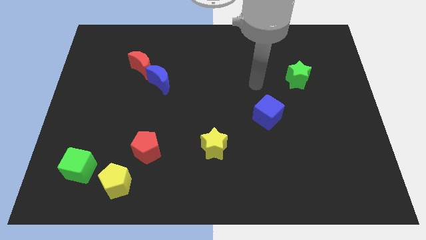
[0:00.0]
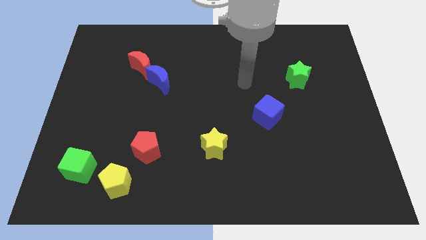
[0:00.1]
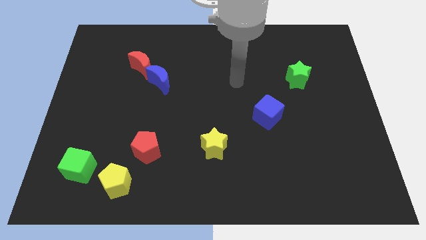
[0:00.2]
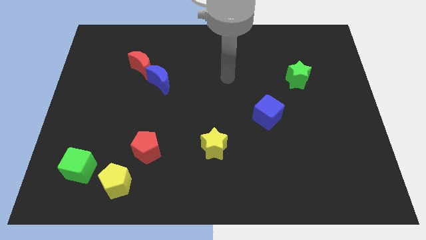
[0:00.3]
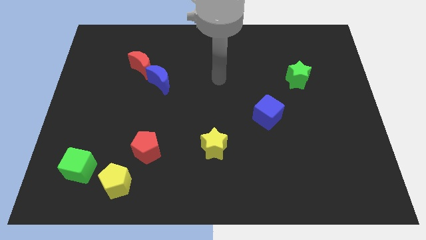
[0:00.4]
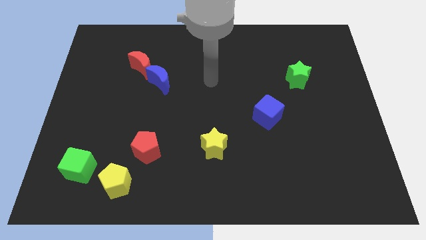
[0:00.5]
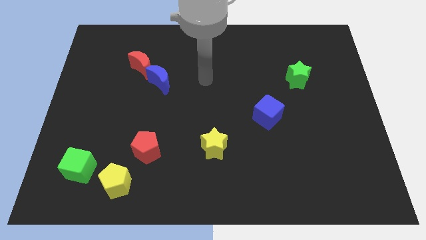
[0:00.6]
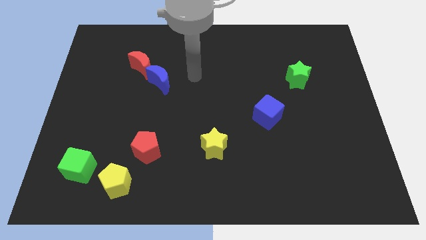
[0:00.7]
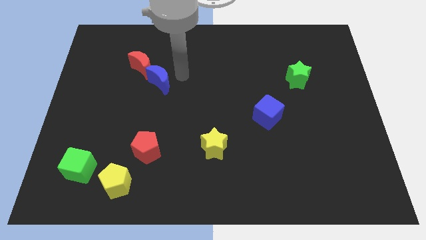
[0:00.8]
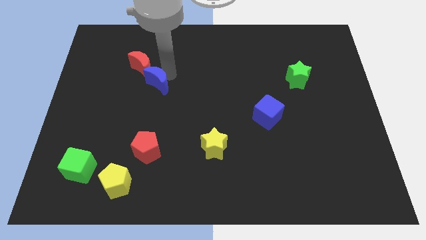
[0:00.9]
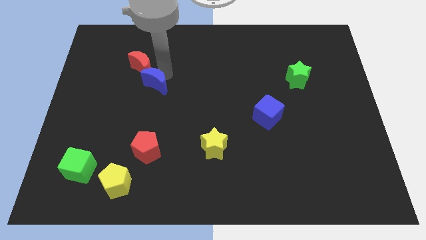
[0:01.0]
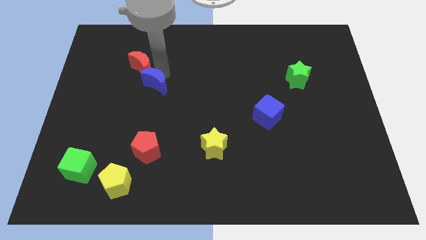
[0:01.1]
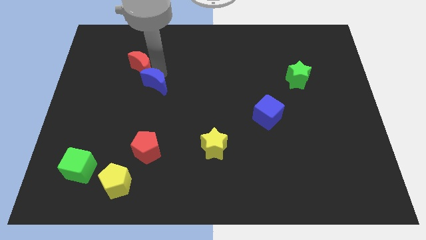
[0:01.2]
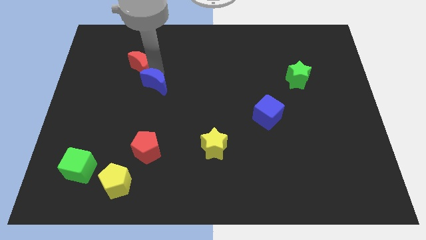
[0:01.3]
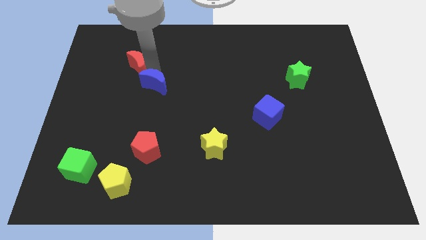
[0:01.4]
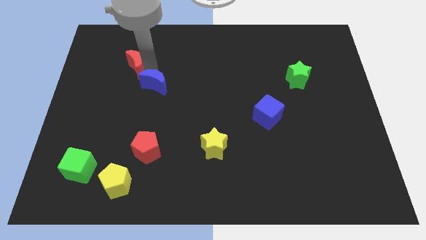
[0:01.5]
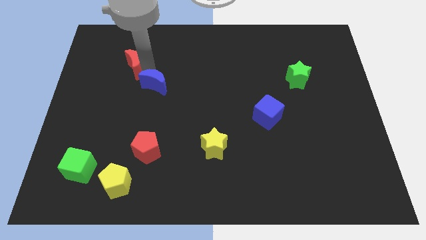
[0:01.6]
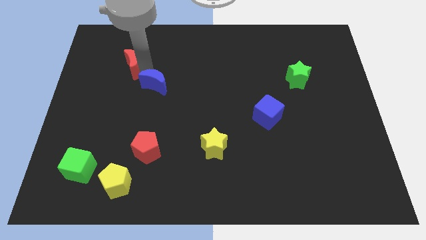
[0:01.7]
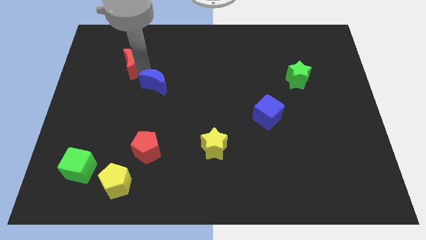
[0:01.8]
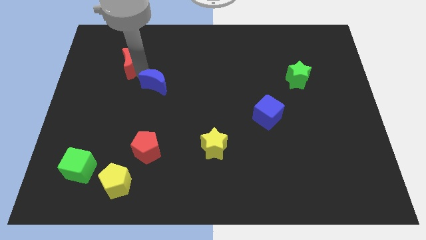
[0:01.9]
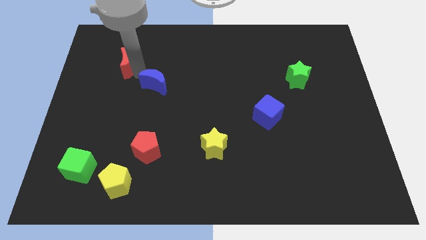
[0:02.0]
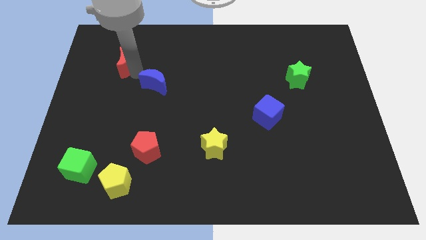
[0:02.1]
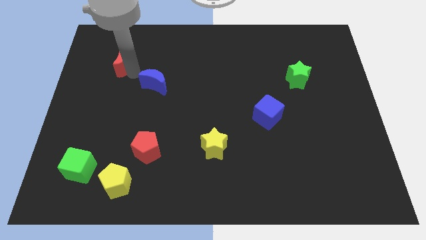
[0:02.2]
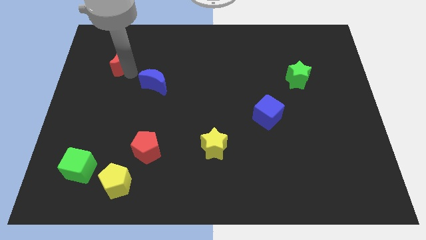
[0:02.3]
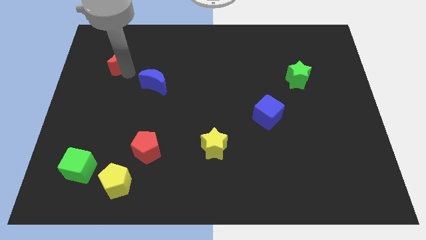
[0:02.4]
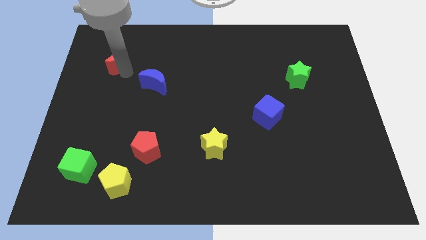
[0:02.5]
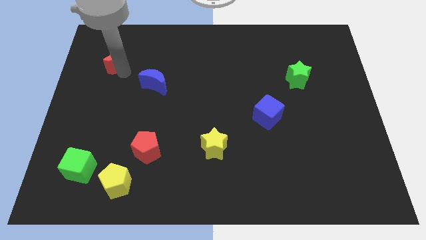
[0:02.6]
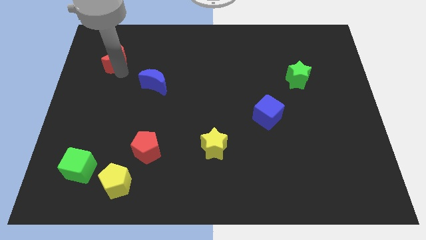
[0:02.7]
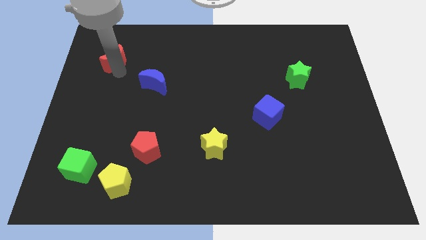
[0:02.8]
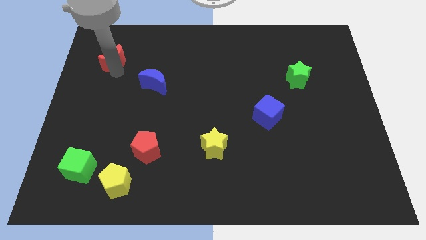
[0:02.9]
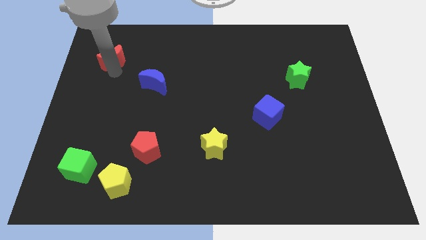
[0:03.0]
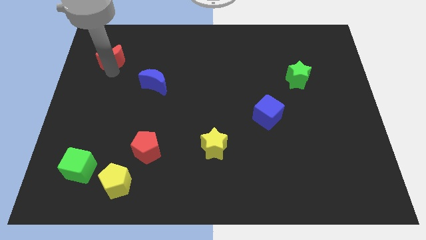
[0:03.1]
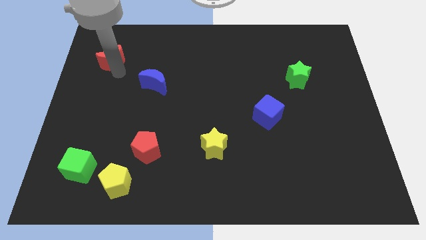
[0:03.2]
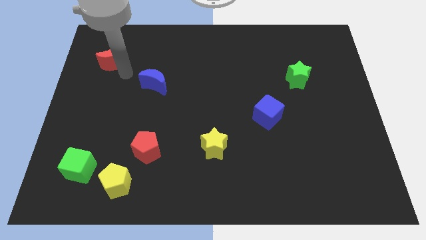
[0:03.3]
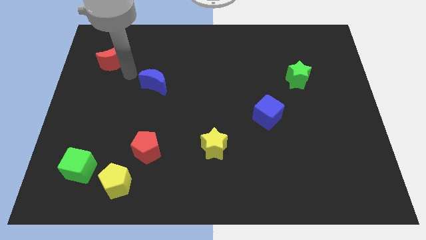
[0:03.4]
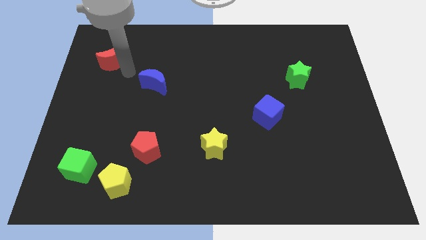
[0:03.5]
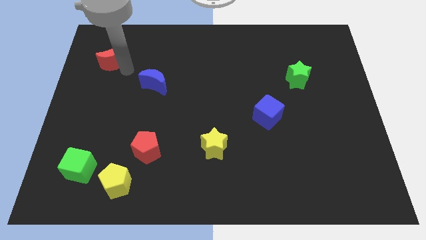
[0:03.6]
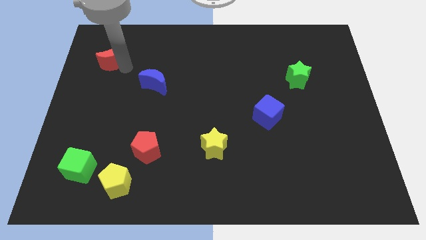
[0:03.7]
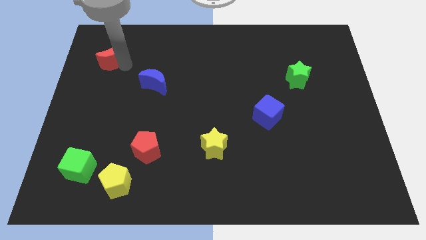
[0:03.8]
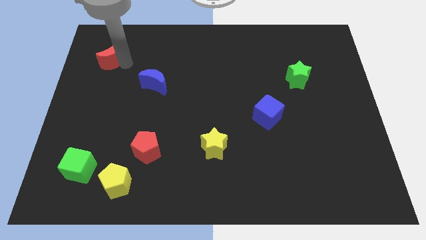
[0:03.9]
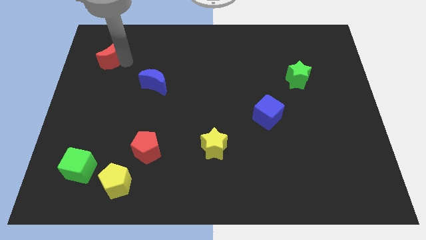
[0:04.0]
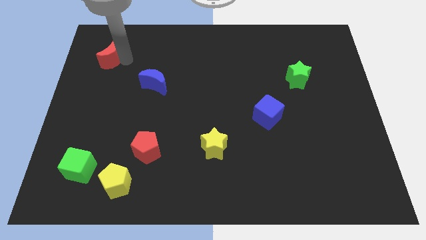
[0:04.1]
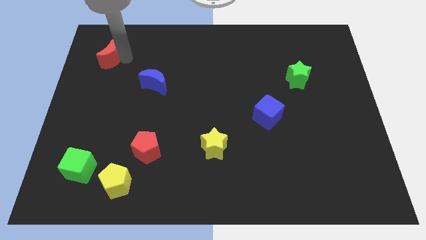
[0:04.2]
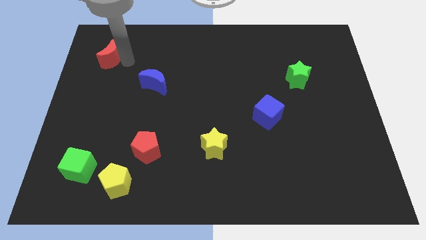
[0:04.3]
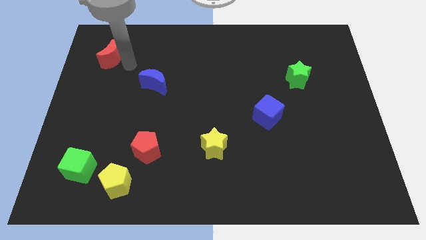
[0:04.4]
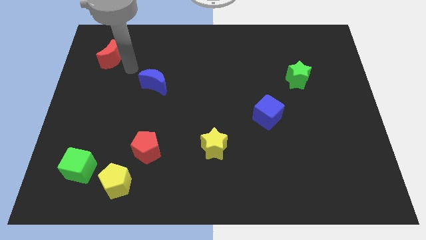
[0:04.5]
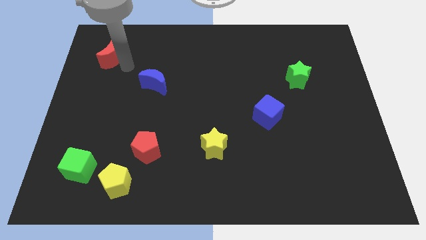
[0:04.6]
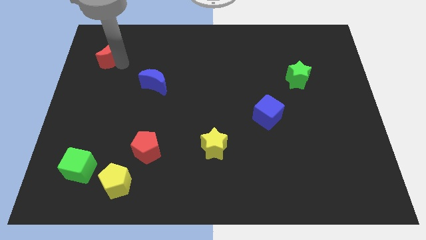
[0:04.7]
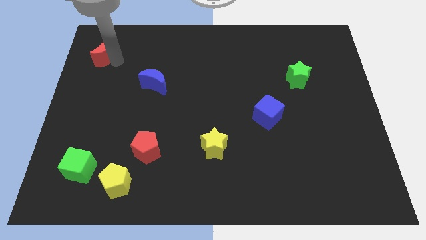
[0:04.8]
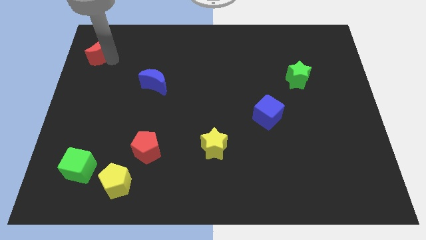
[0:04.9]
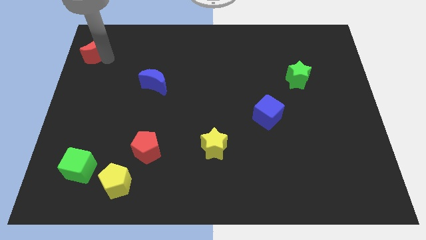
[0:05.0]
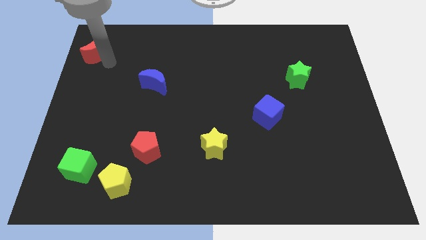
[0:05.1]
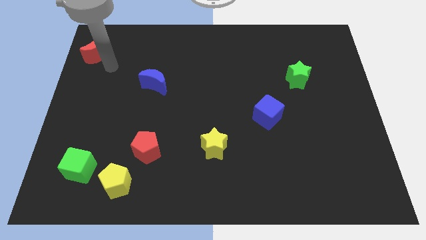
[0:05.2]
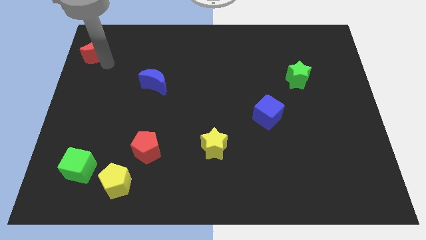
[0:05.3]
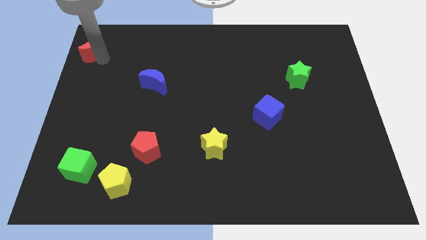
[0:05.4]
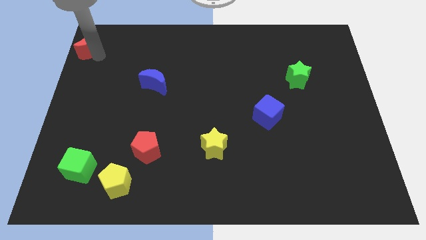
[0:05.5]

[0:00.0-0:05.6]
move the red moon to the top left of the board

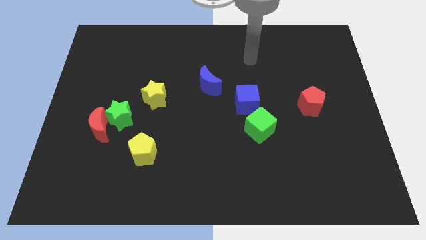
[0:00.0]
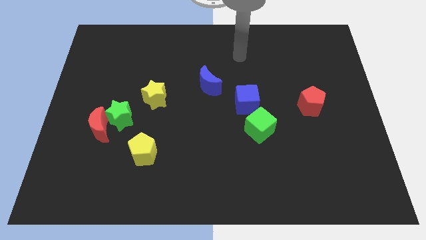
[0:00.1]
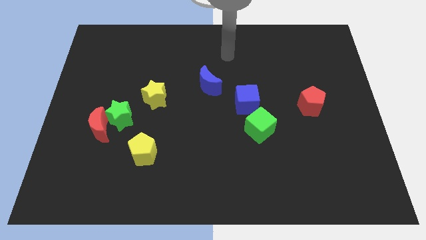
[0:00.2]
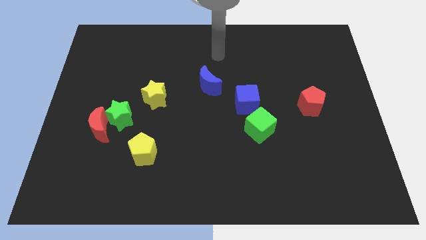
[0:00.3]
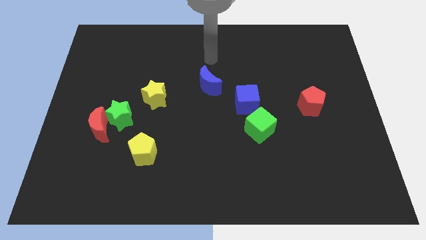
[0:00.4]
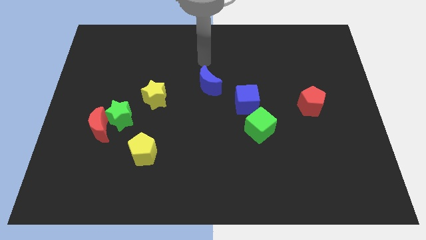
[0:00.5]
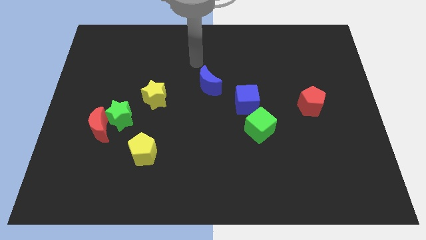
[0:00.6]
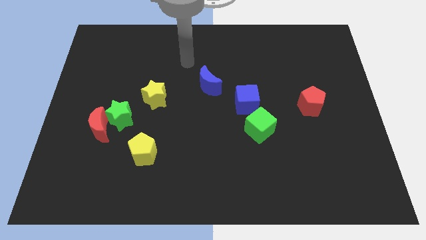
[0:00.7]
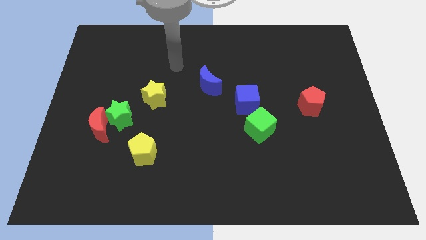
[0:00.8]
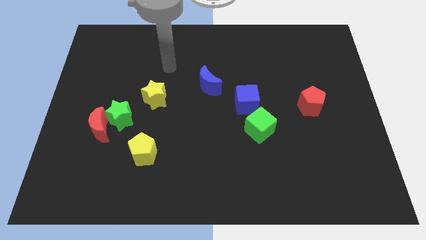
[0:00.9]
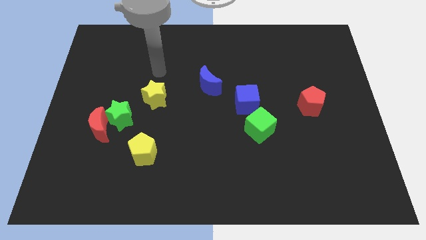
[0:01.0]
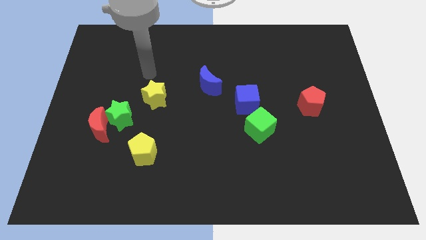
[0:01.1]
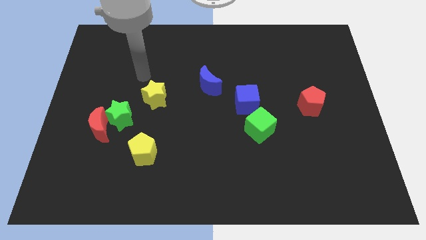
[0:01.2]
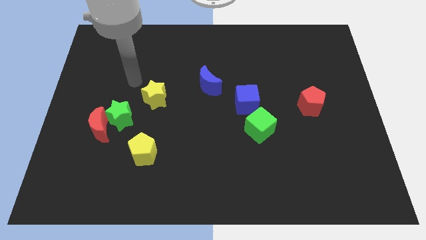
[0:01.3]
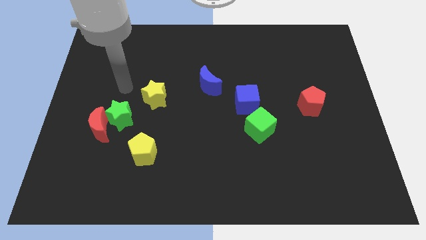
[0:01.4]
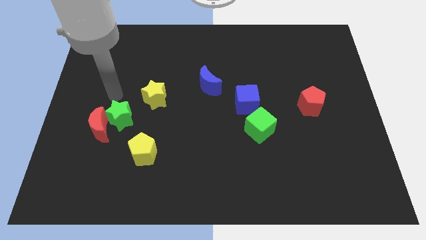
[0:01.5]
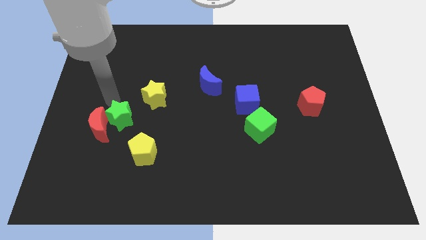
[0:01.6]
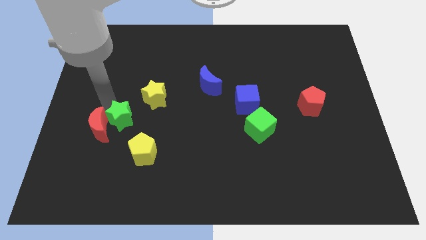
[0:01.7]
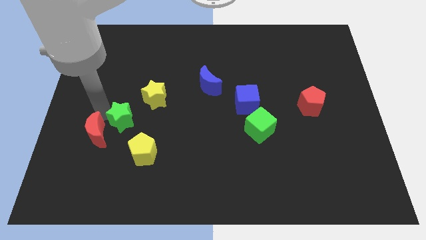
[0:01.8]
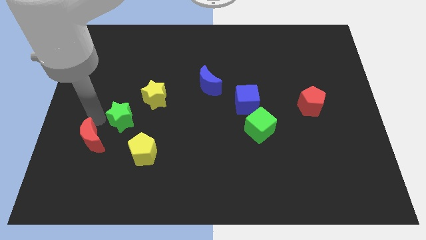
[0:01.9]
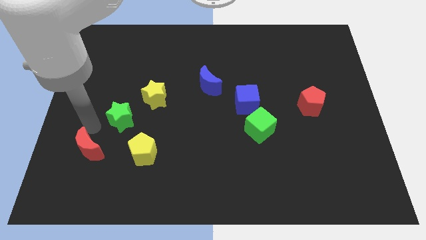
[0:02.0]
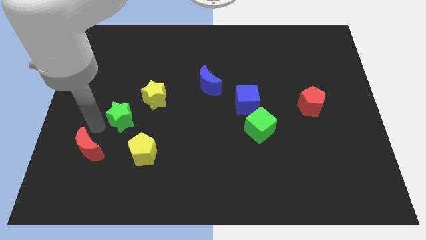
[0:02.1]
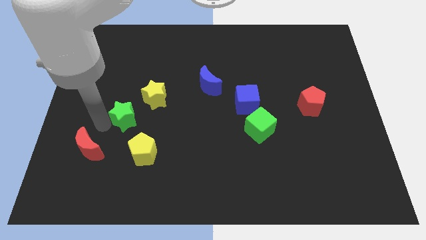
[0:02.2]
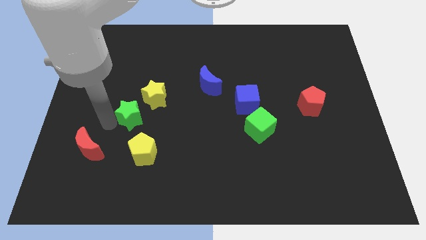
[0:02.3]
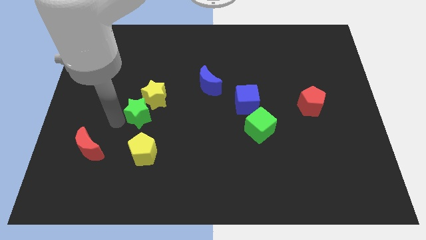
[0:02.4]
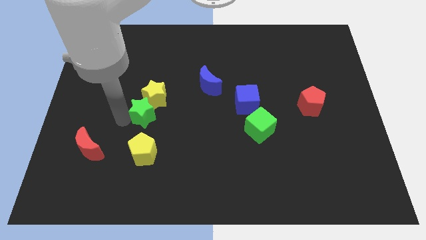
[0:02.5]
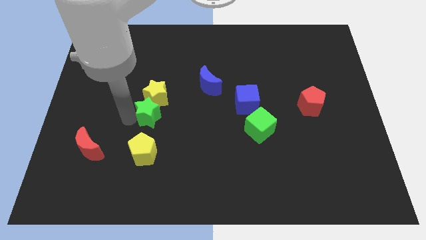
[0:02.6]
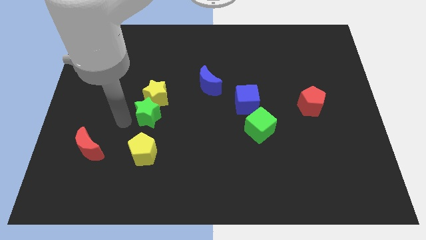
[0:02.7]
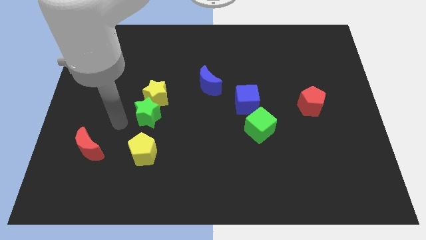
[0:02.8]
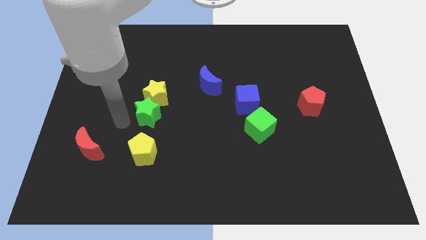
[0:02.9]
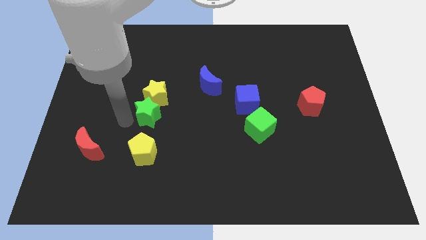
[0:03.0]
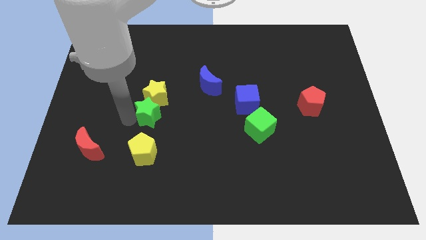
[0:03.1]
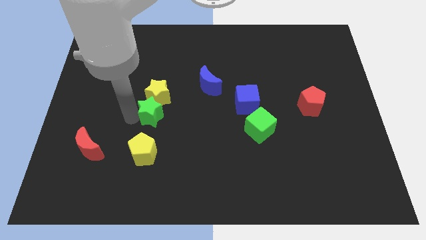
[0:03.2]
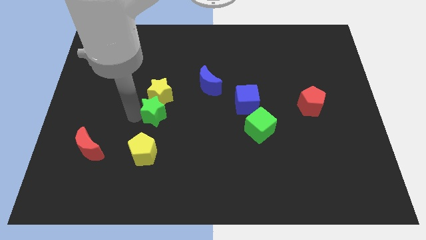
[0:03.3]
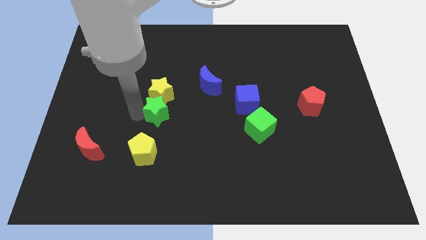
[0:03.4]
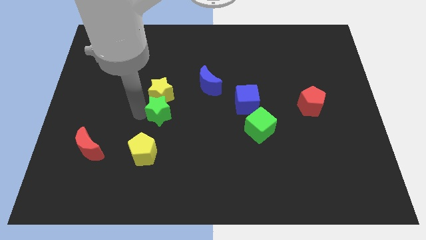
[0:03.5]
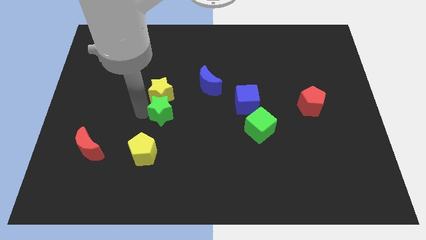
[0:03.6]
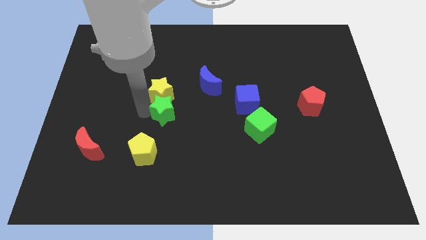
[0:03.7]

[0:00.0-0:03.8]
push the green star to the center of the board
